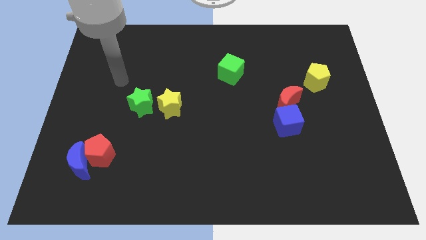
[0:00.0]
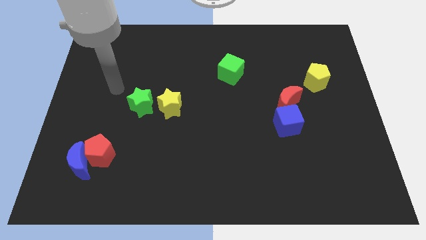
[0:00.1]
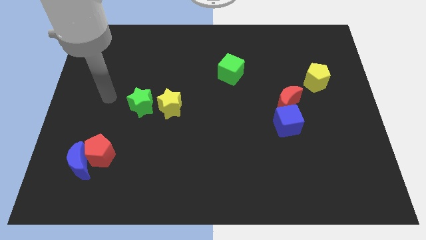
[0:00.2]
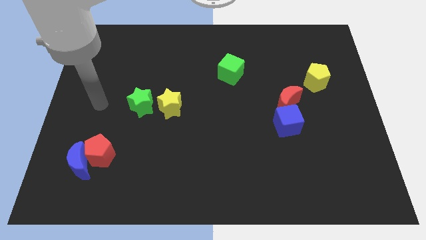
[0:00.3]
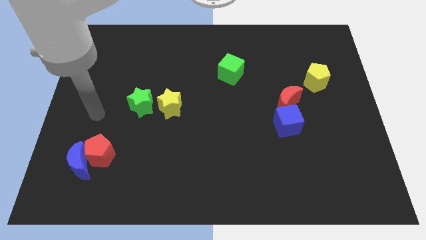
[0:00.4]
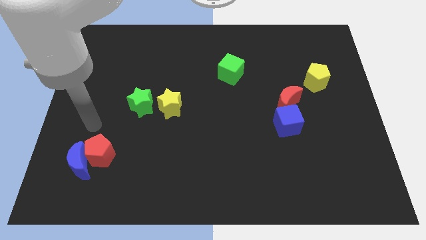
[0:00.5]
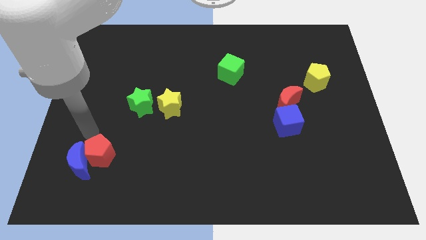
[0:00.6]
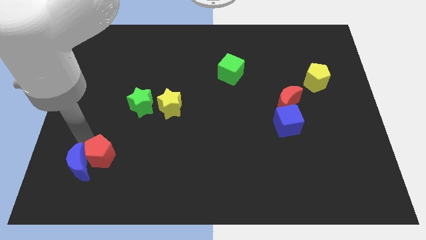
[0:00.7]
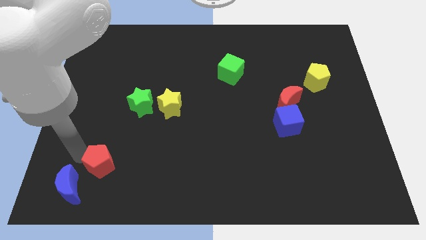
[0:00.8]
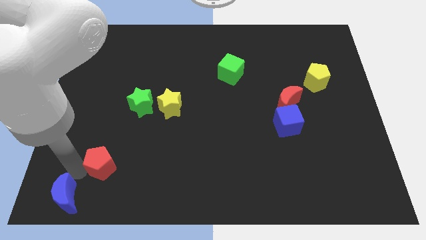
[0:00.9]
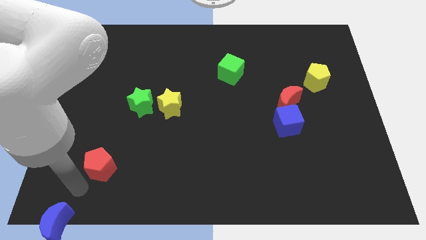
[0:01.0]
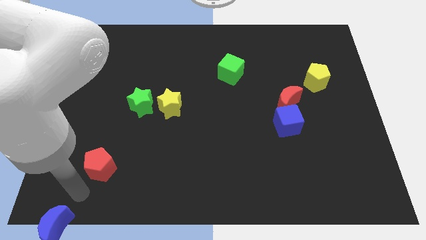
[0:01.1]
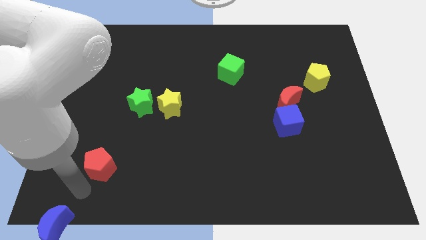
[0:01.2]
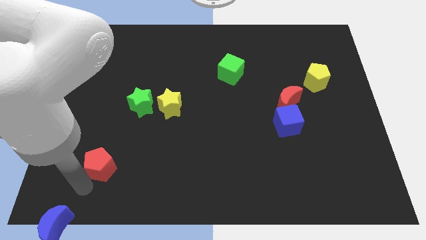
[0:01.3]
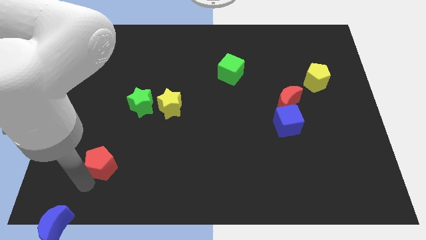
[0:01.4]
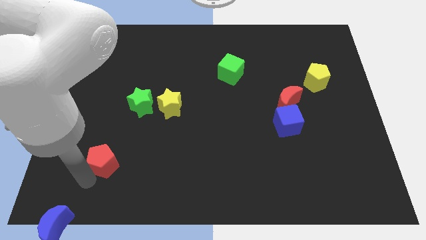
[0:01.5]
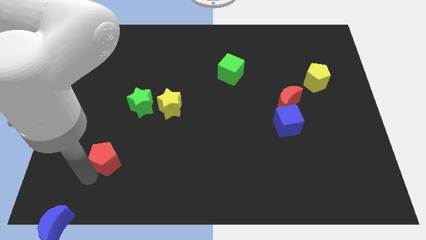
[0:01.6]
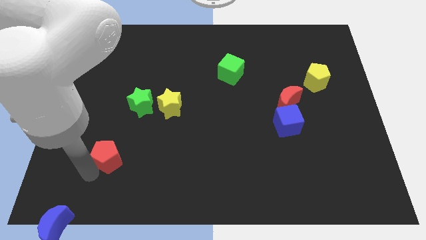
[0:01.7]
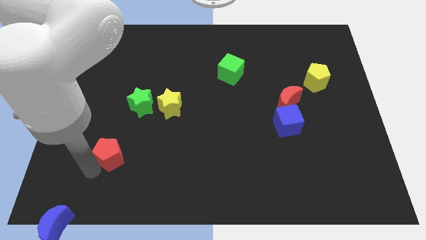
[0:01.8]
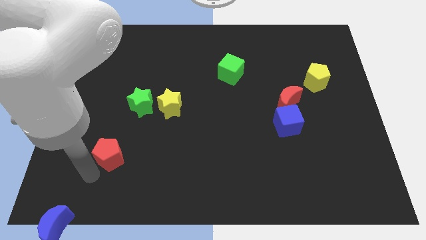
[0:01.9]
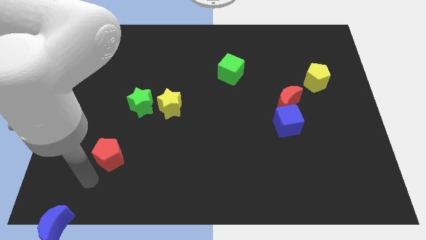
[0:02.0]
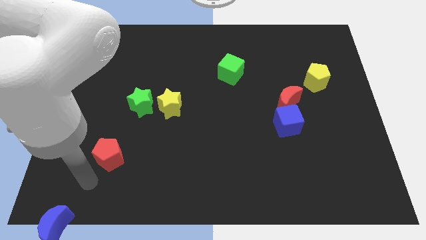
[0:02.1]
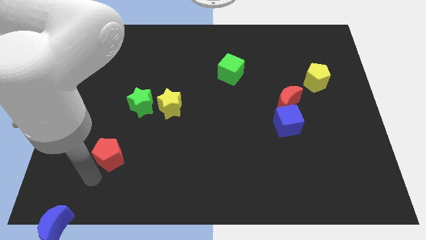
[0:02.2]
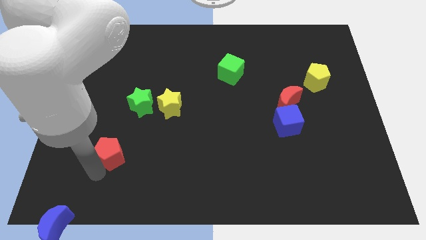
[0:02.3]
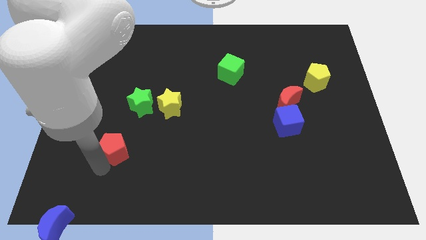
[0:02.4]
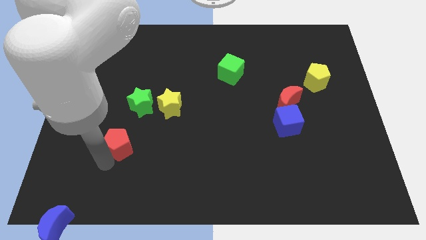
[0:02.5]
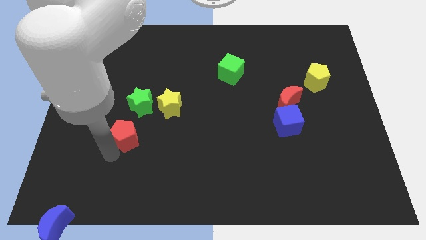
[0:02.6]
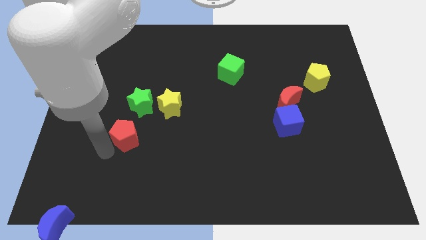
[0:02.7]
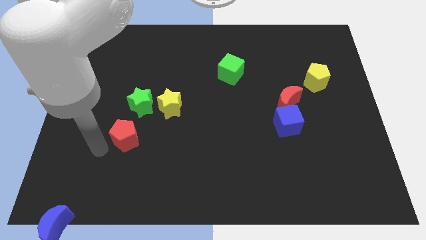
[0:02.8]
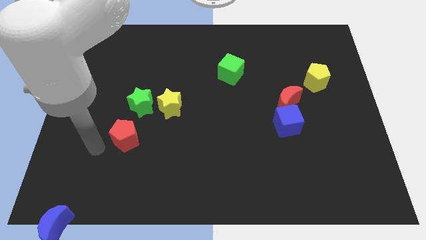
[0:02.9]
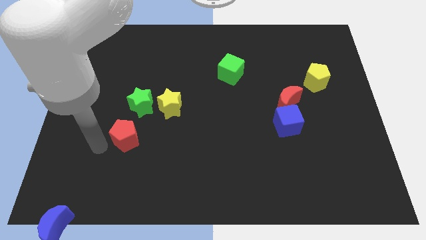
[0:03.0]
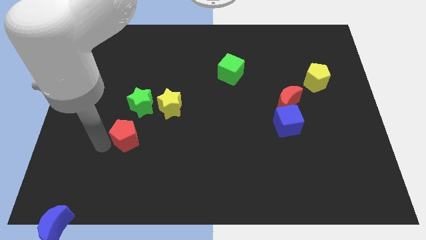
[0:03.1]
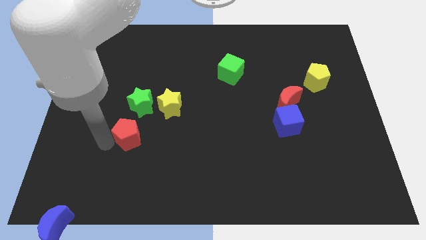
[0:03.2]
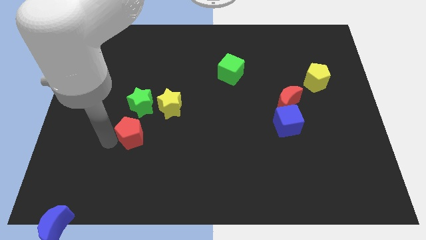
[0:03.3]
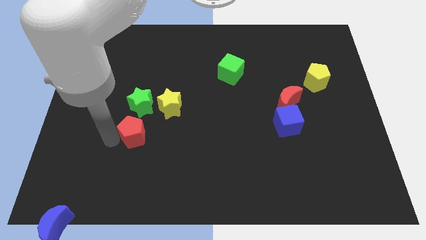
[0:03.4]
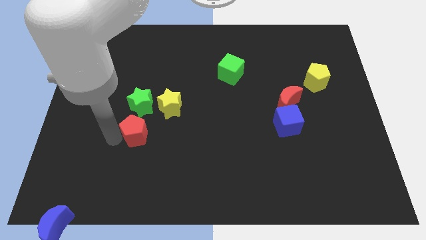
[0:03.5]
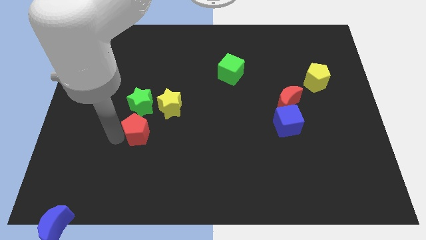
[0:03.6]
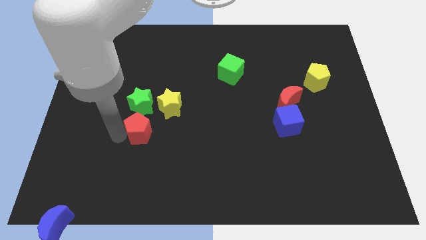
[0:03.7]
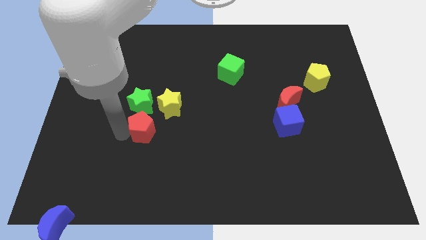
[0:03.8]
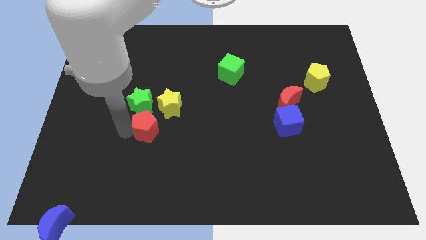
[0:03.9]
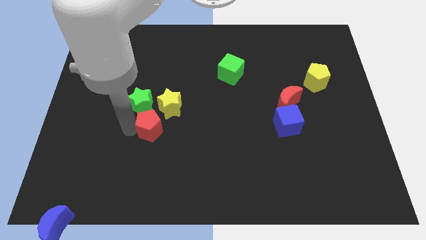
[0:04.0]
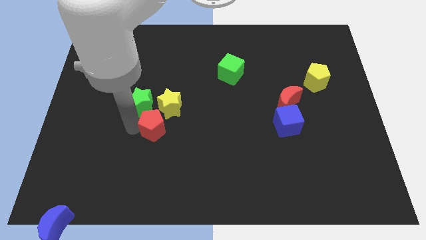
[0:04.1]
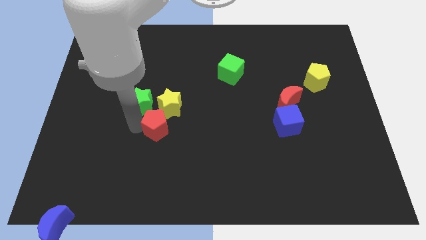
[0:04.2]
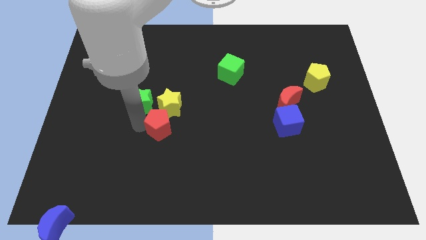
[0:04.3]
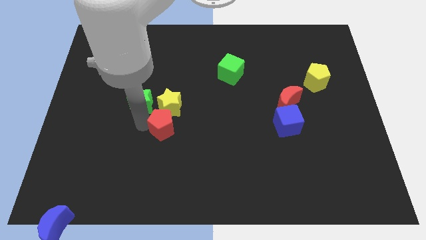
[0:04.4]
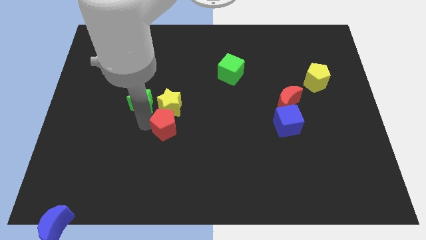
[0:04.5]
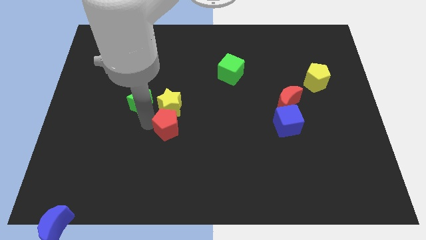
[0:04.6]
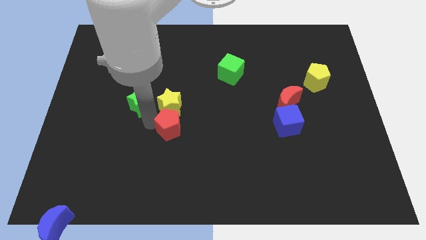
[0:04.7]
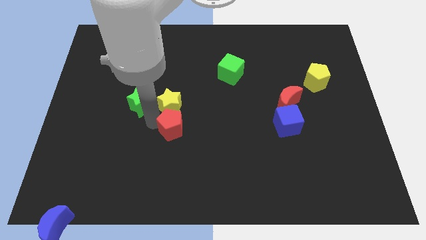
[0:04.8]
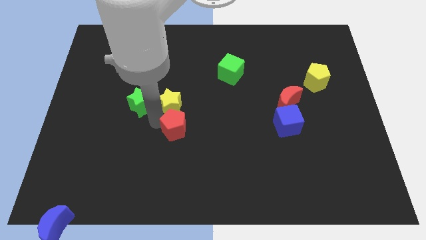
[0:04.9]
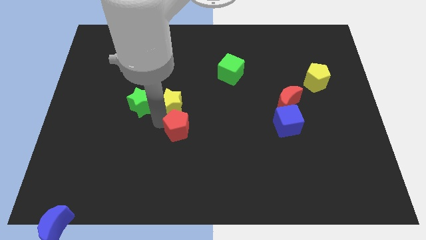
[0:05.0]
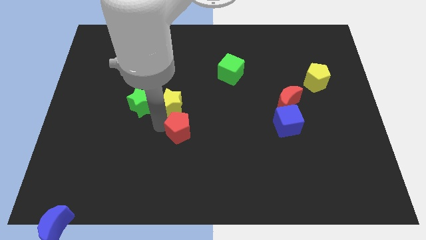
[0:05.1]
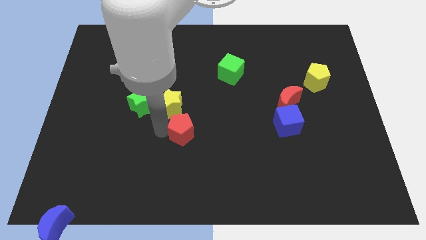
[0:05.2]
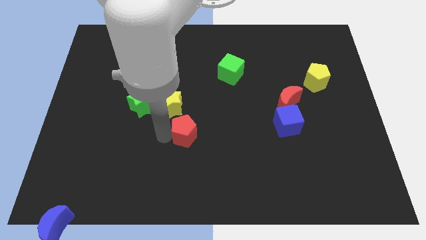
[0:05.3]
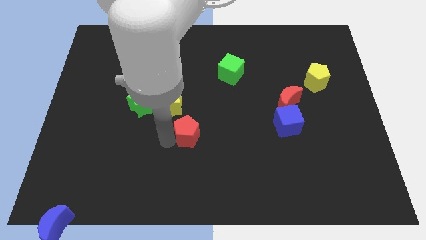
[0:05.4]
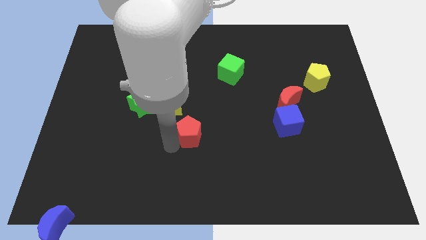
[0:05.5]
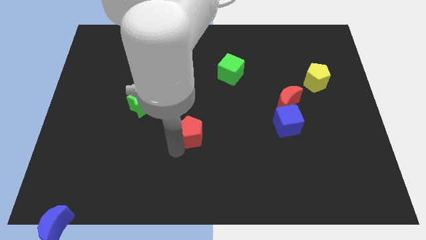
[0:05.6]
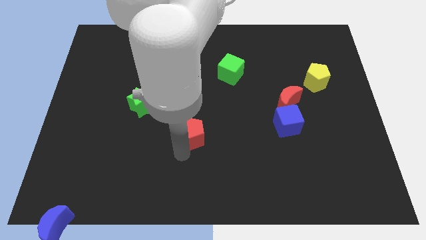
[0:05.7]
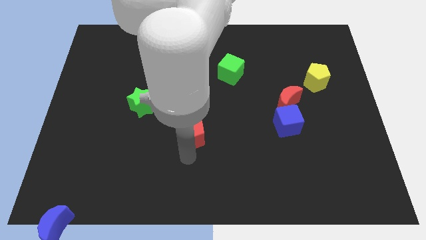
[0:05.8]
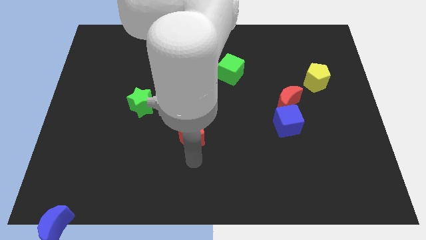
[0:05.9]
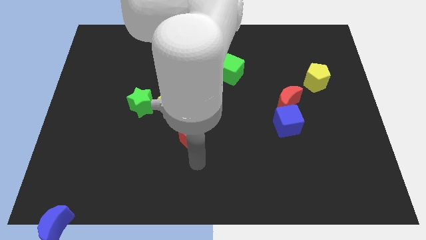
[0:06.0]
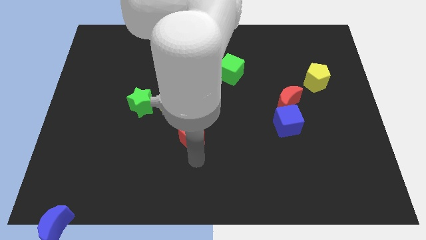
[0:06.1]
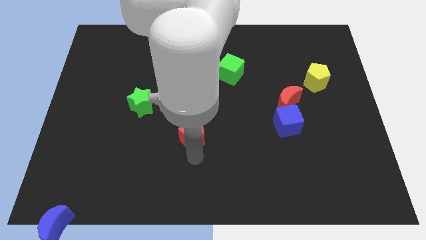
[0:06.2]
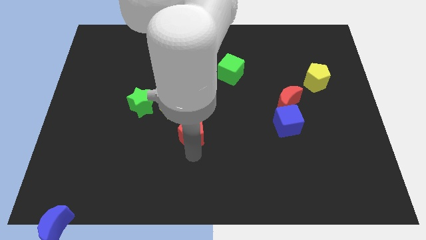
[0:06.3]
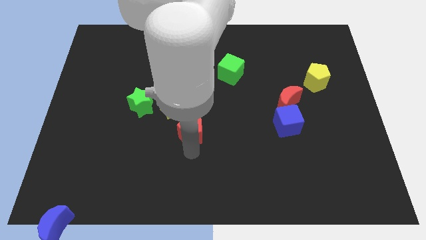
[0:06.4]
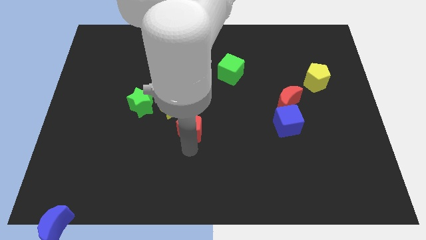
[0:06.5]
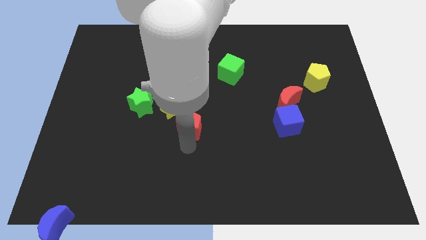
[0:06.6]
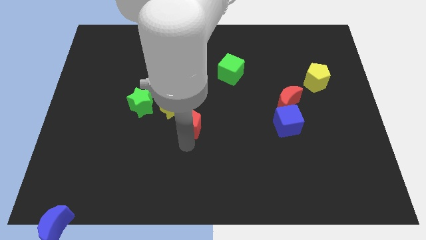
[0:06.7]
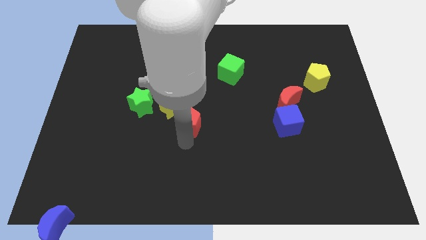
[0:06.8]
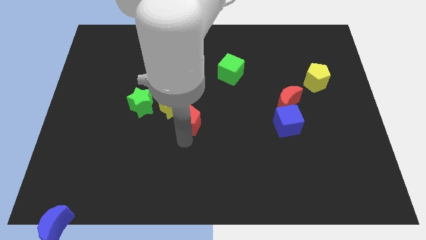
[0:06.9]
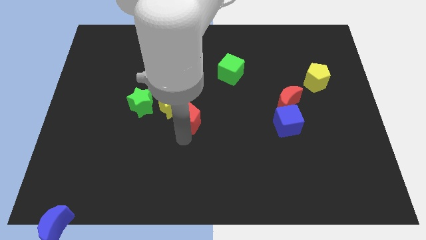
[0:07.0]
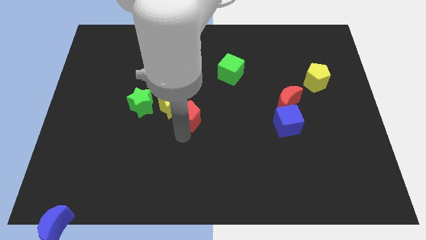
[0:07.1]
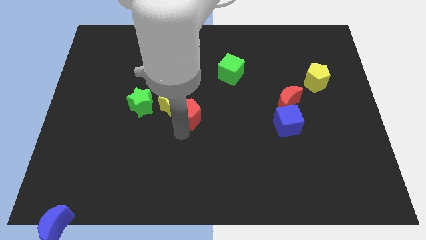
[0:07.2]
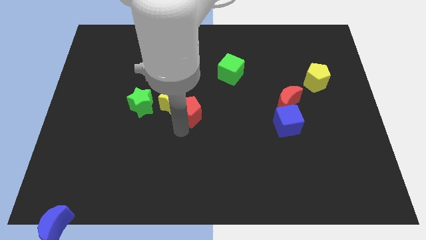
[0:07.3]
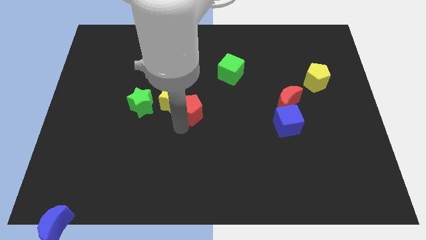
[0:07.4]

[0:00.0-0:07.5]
slide the red pentagon diagonally upwards and to the right

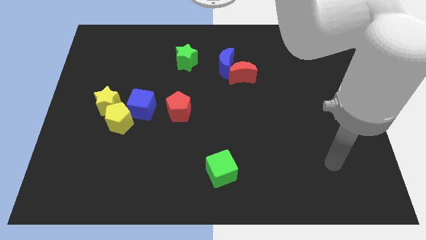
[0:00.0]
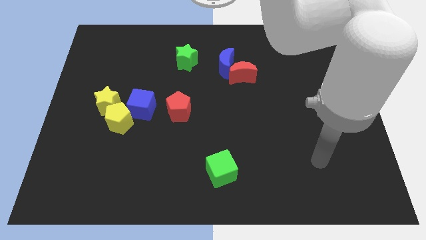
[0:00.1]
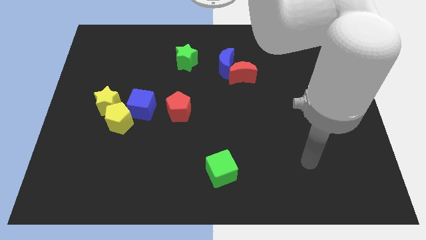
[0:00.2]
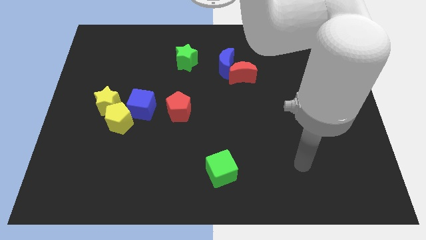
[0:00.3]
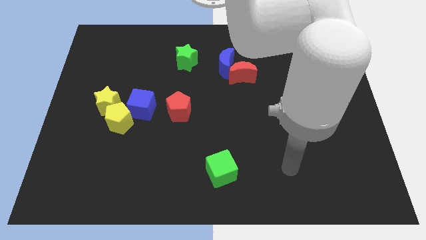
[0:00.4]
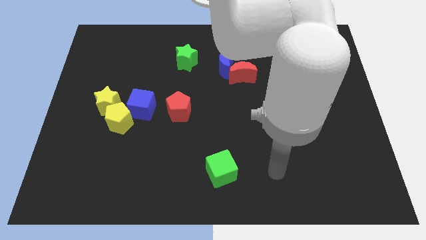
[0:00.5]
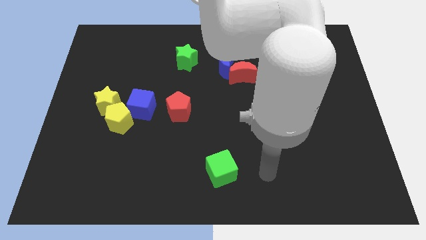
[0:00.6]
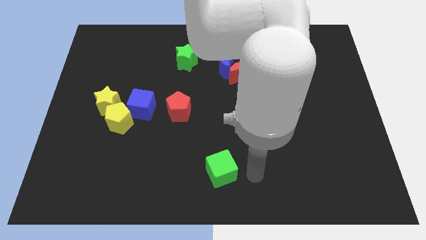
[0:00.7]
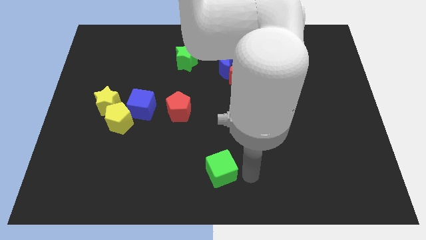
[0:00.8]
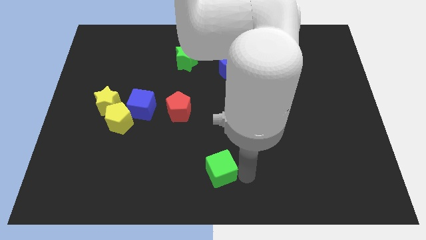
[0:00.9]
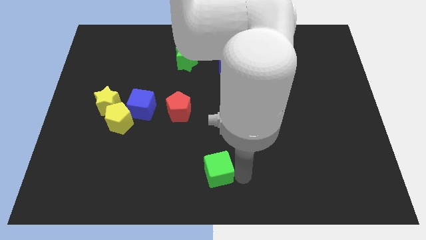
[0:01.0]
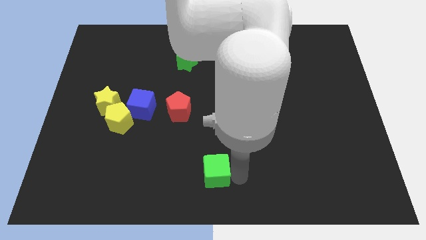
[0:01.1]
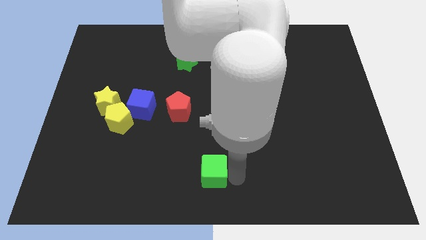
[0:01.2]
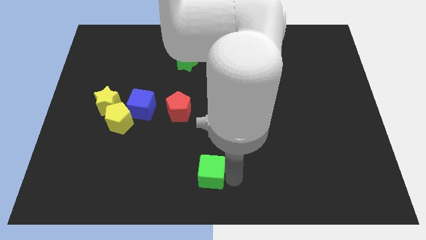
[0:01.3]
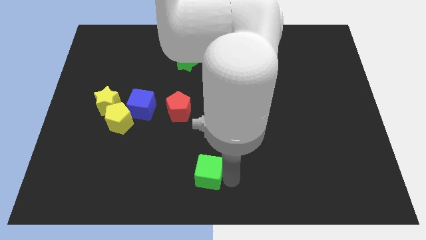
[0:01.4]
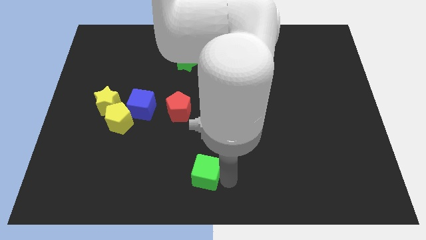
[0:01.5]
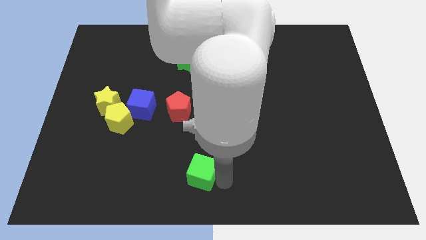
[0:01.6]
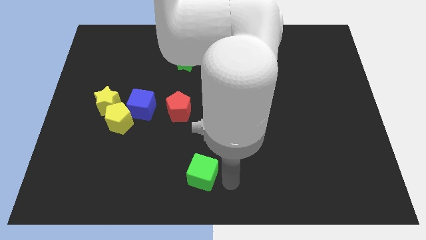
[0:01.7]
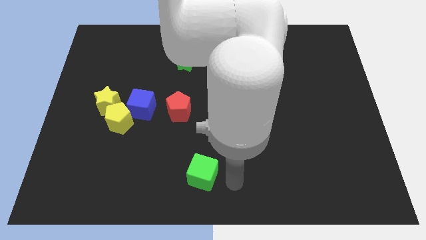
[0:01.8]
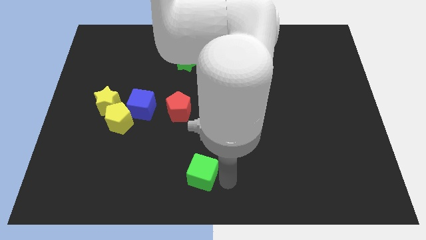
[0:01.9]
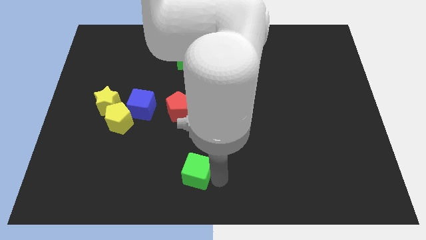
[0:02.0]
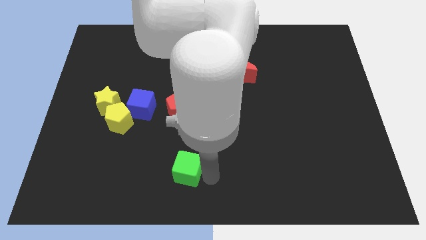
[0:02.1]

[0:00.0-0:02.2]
move the green cube to the left a little
